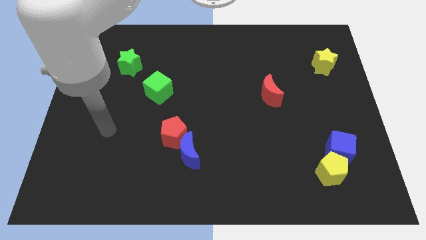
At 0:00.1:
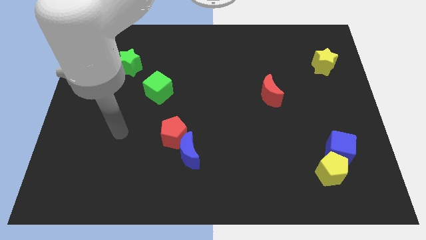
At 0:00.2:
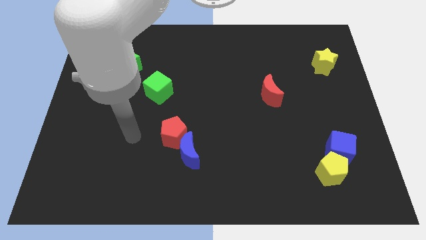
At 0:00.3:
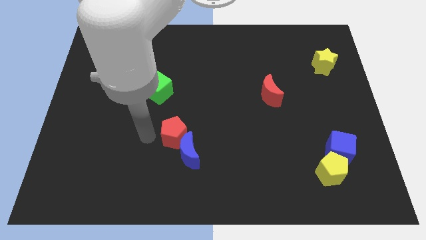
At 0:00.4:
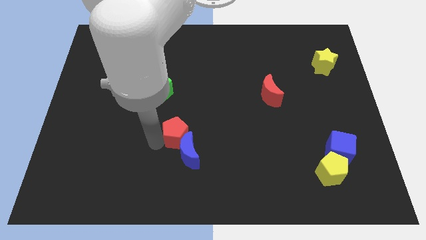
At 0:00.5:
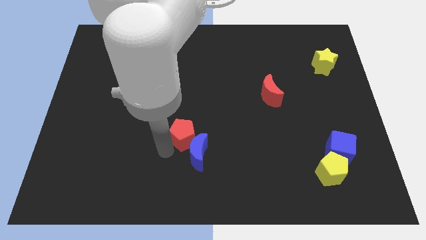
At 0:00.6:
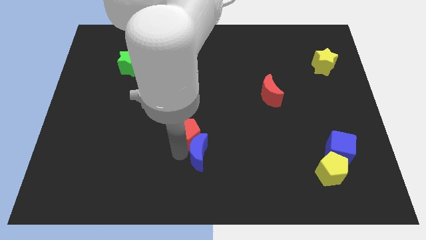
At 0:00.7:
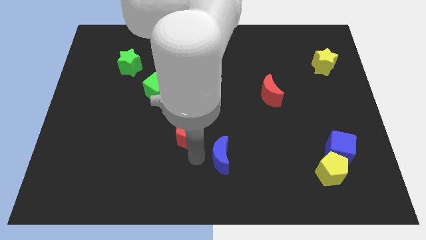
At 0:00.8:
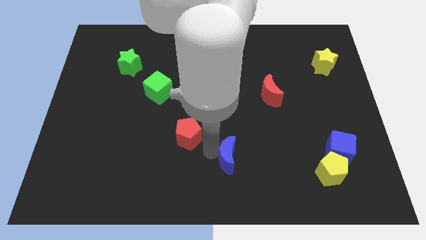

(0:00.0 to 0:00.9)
pull the red pentagon apart from the blue moon

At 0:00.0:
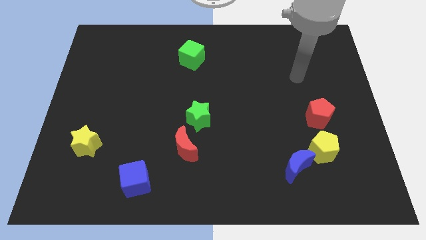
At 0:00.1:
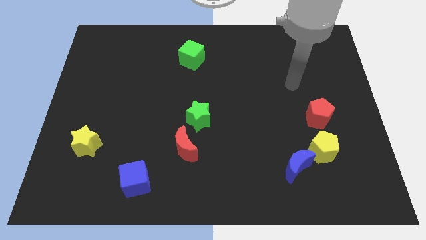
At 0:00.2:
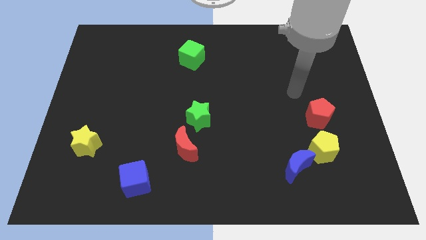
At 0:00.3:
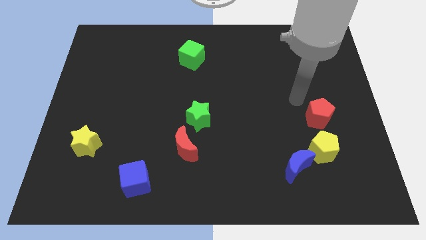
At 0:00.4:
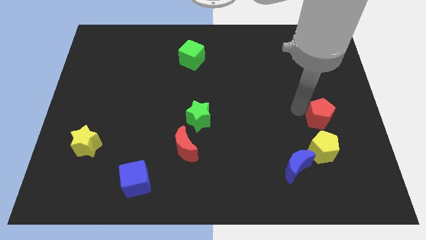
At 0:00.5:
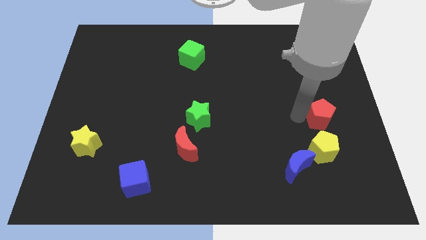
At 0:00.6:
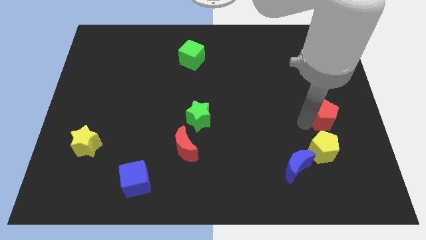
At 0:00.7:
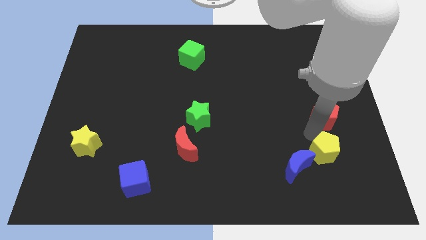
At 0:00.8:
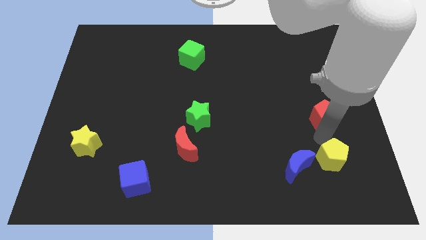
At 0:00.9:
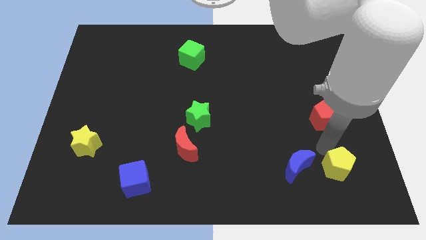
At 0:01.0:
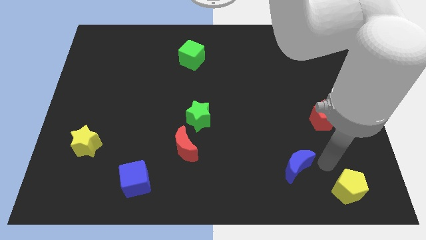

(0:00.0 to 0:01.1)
move the blue moon away from the yellow pentagon

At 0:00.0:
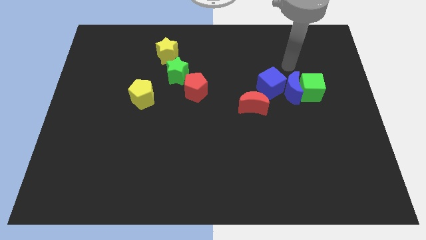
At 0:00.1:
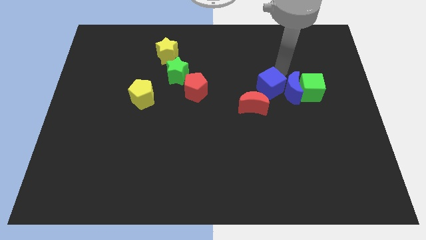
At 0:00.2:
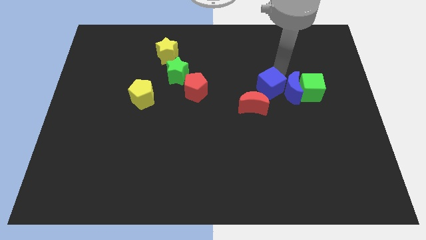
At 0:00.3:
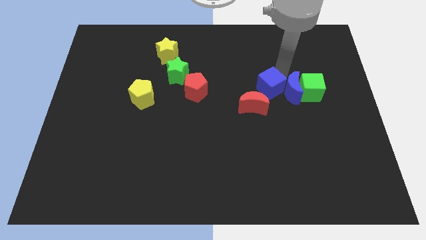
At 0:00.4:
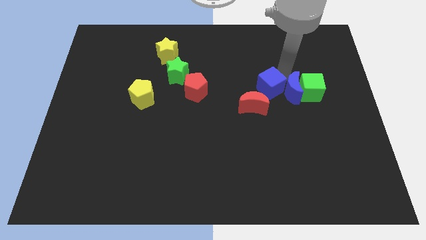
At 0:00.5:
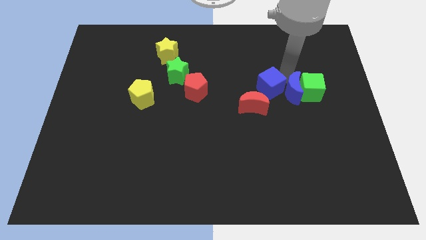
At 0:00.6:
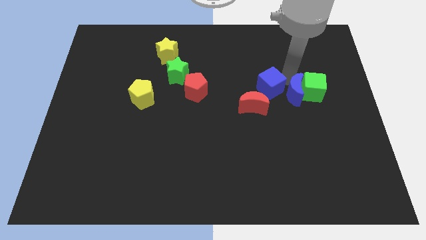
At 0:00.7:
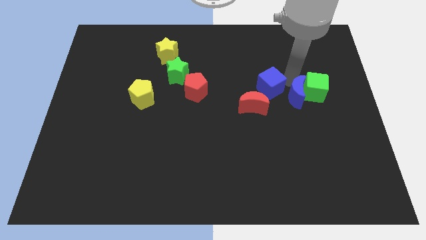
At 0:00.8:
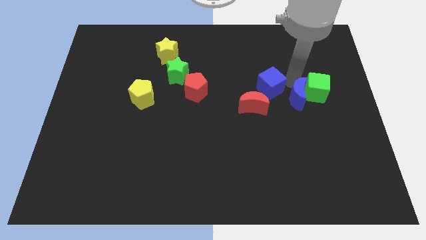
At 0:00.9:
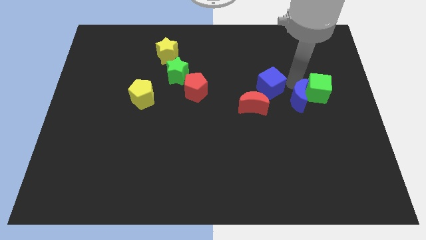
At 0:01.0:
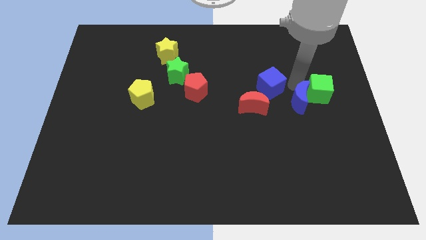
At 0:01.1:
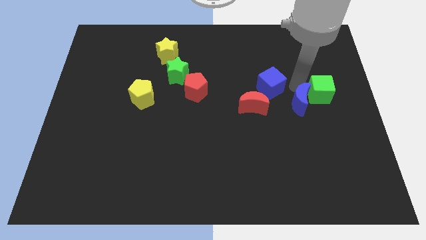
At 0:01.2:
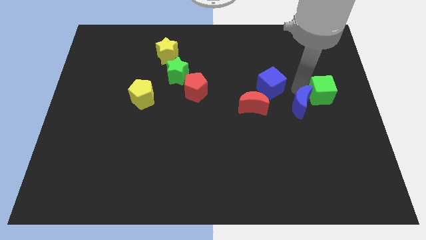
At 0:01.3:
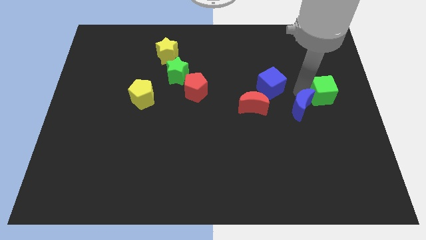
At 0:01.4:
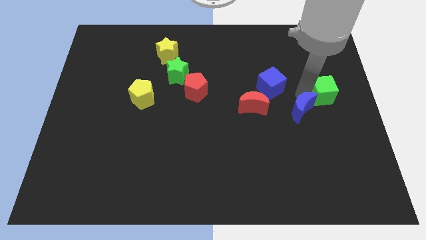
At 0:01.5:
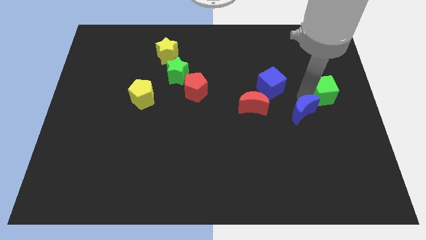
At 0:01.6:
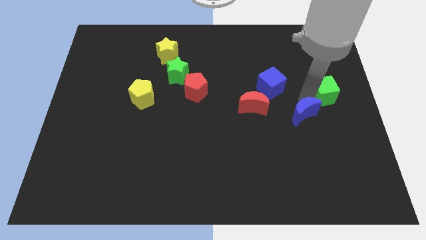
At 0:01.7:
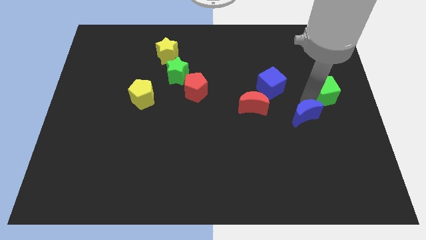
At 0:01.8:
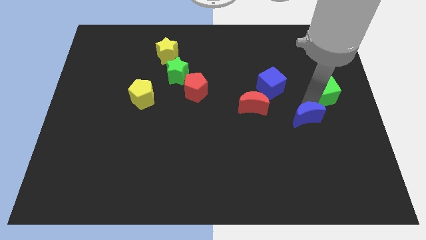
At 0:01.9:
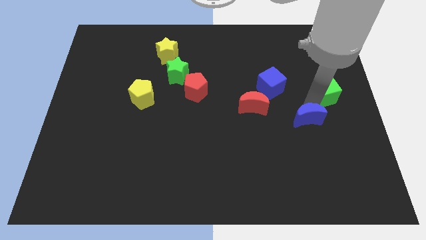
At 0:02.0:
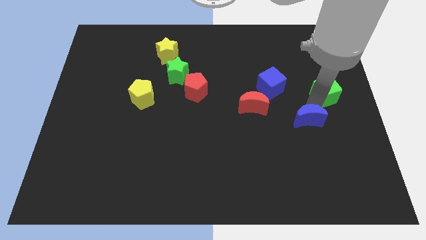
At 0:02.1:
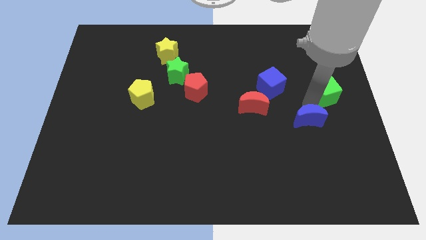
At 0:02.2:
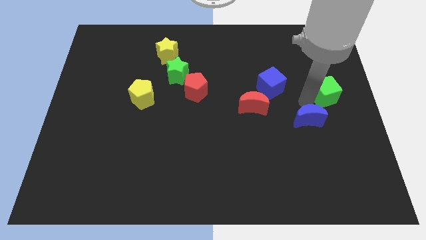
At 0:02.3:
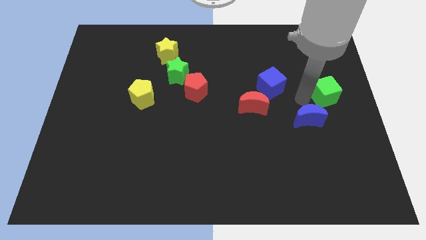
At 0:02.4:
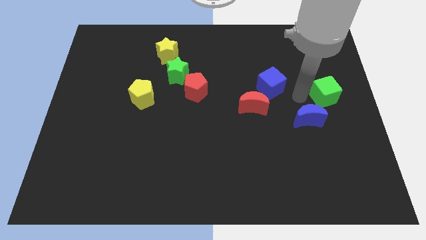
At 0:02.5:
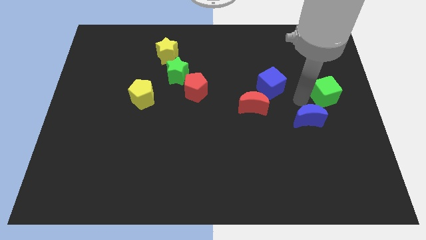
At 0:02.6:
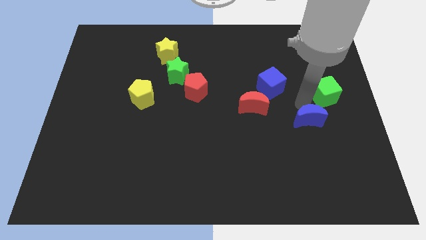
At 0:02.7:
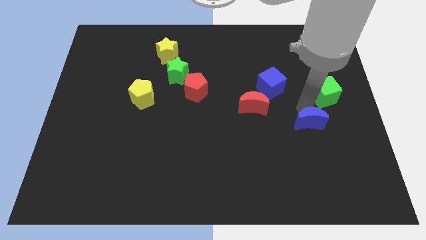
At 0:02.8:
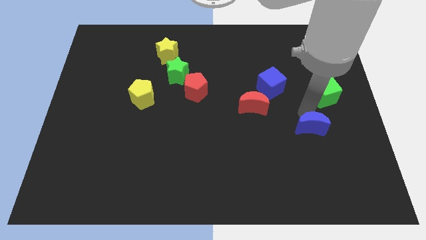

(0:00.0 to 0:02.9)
move the blue moon away from the green cube and blue cube

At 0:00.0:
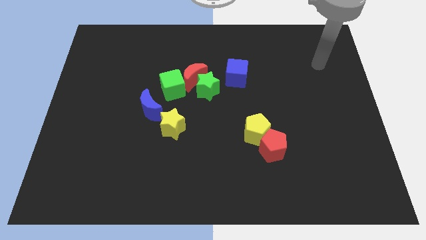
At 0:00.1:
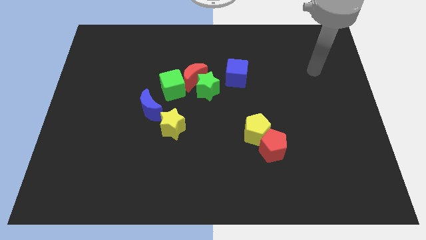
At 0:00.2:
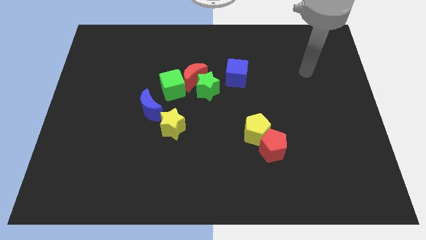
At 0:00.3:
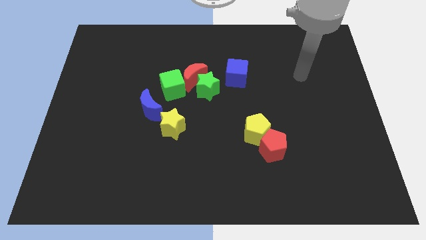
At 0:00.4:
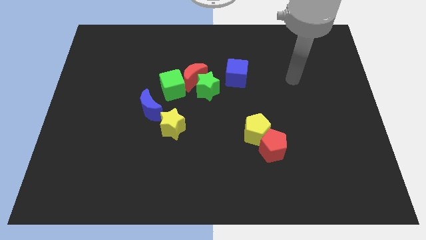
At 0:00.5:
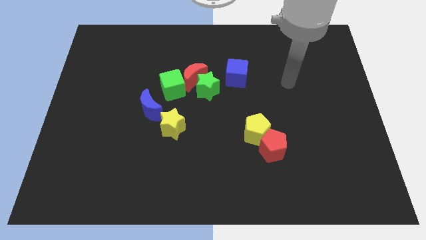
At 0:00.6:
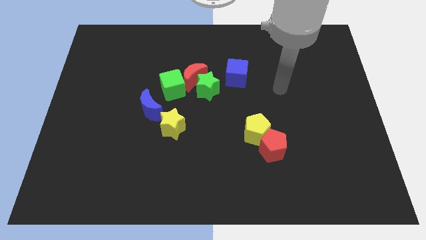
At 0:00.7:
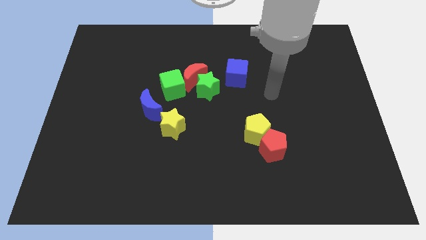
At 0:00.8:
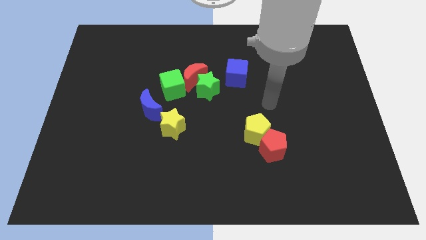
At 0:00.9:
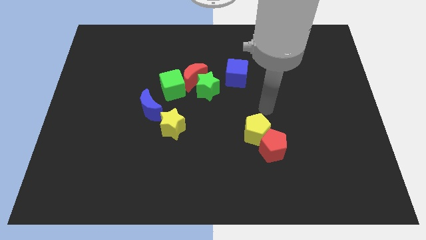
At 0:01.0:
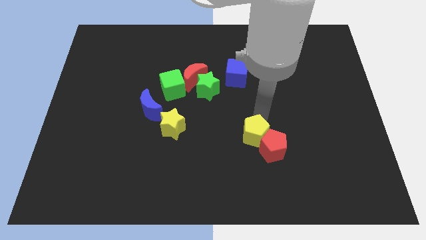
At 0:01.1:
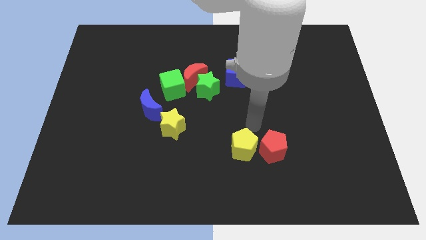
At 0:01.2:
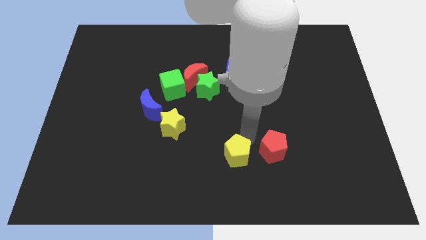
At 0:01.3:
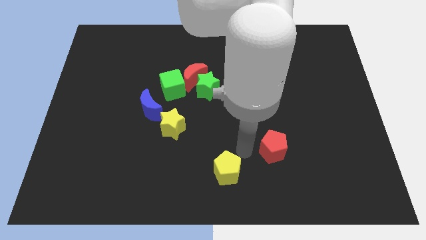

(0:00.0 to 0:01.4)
pull the red pentagon apart from the yellow pentagon

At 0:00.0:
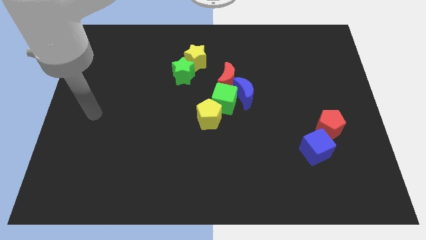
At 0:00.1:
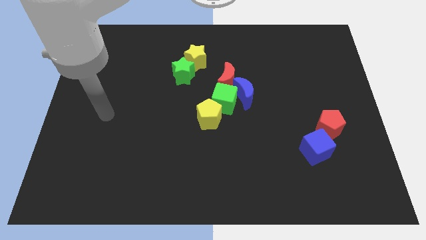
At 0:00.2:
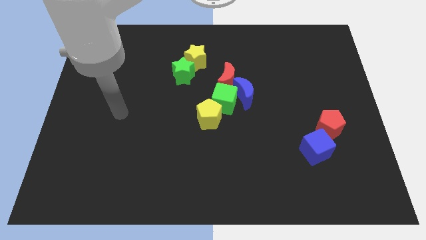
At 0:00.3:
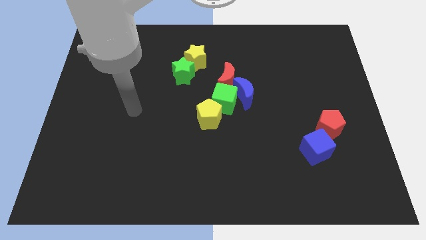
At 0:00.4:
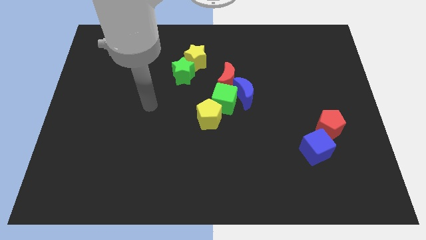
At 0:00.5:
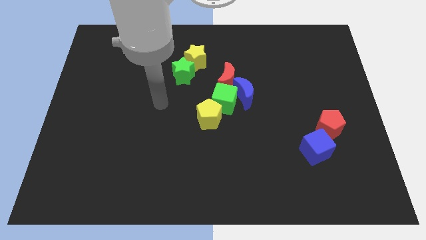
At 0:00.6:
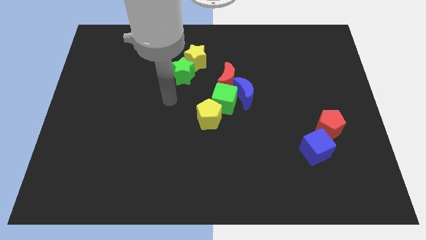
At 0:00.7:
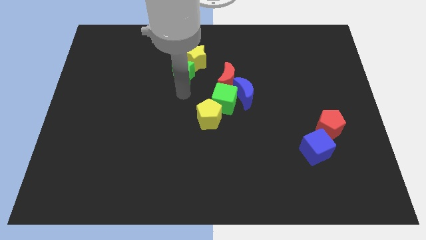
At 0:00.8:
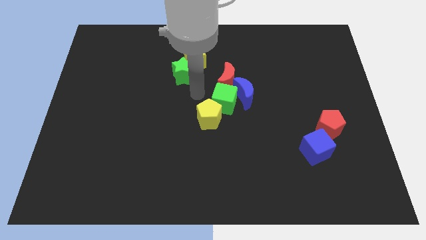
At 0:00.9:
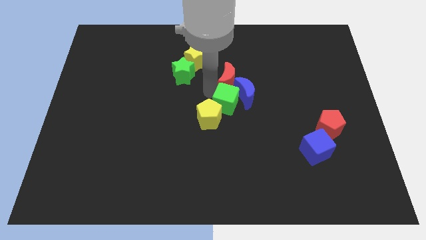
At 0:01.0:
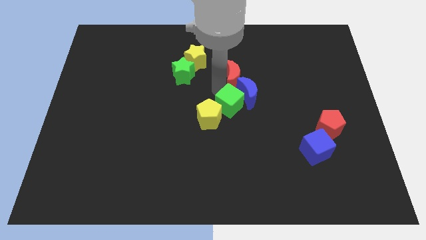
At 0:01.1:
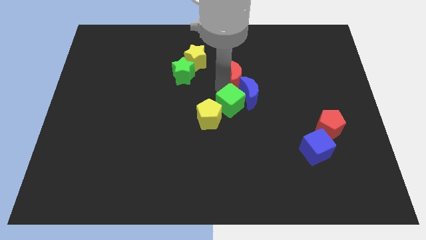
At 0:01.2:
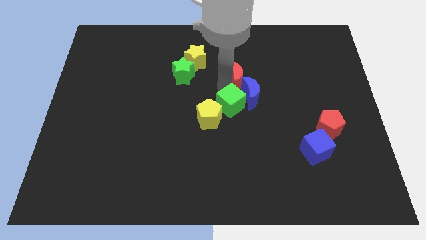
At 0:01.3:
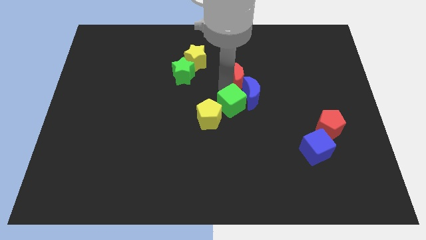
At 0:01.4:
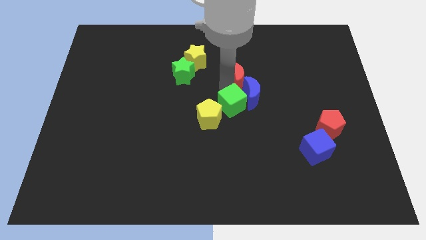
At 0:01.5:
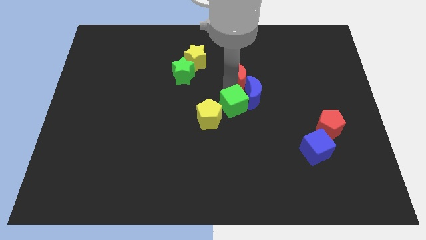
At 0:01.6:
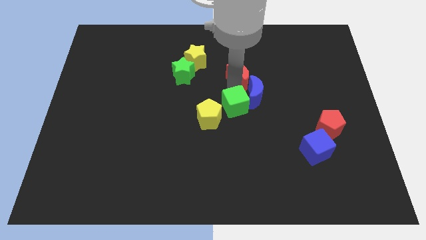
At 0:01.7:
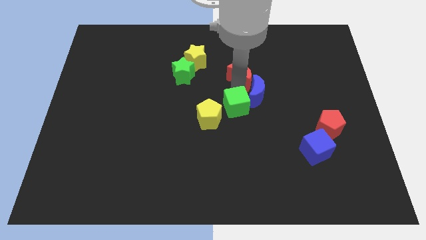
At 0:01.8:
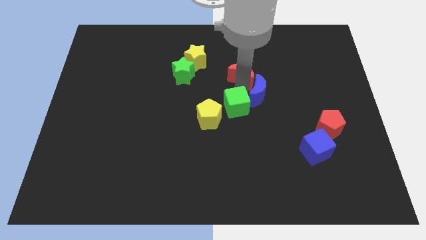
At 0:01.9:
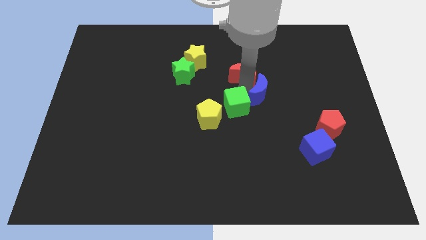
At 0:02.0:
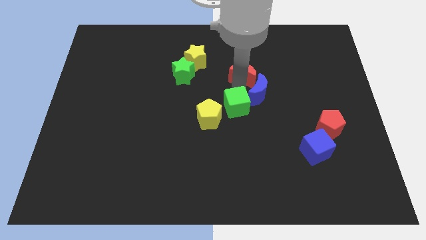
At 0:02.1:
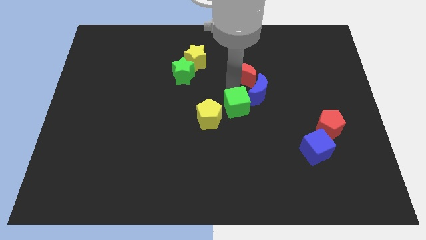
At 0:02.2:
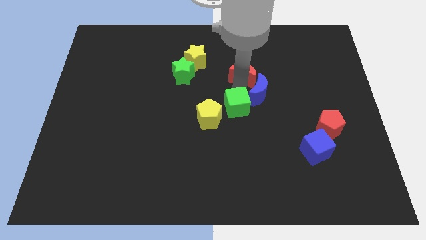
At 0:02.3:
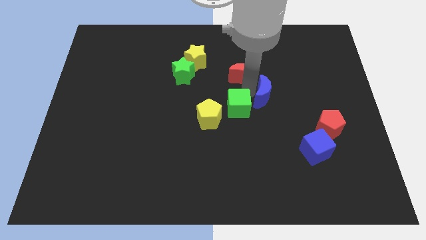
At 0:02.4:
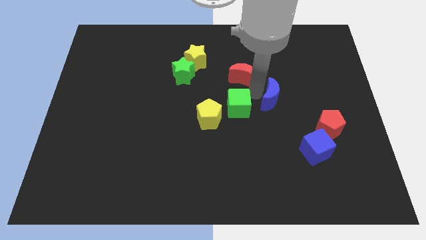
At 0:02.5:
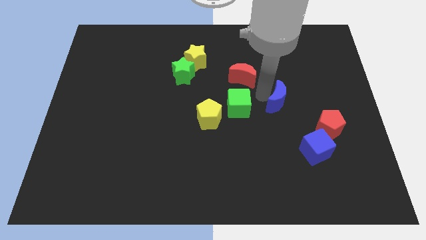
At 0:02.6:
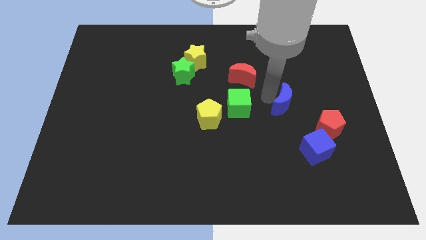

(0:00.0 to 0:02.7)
separate the blue moon from the green cube and red moon
